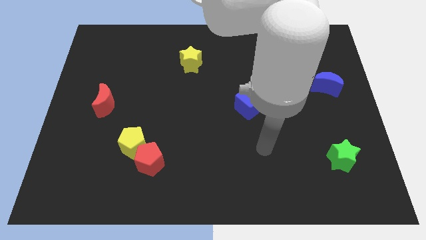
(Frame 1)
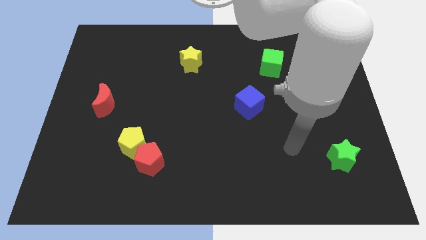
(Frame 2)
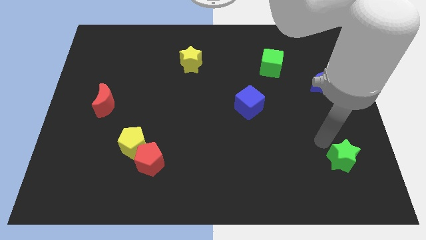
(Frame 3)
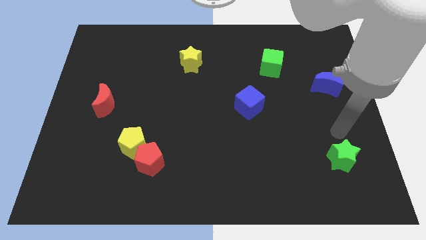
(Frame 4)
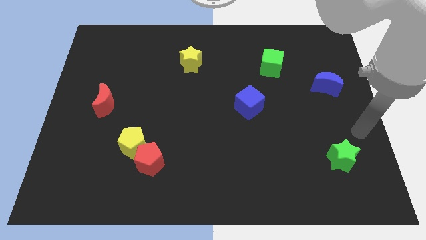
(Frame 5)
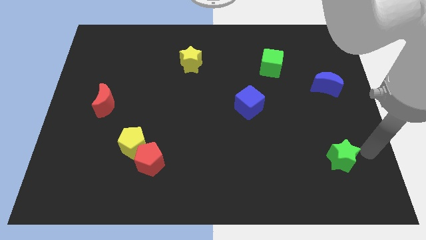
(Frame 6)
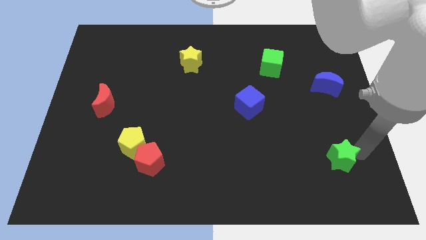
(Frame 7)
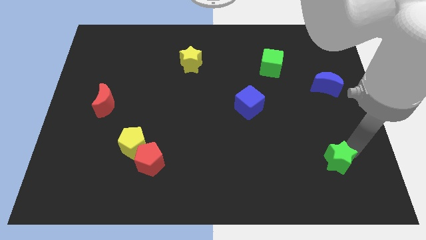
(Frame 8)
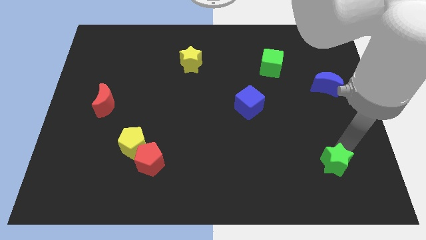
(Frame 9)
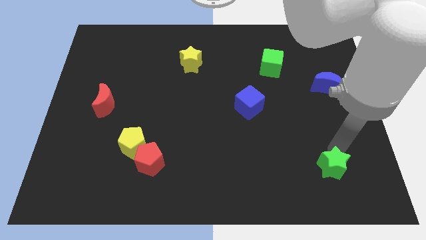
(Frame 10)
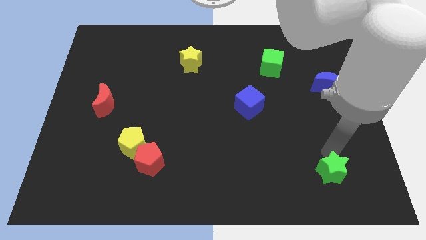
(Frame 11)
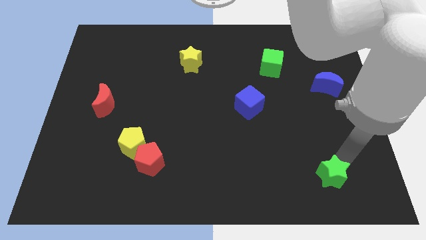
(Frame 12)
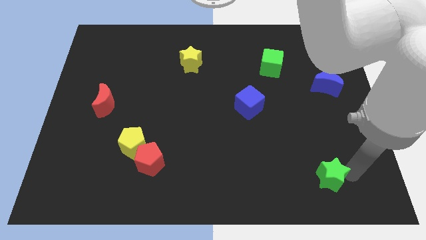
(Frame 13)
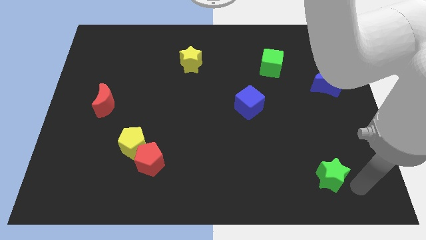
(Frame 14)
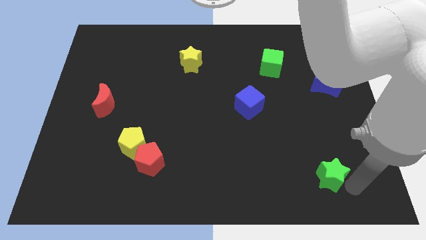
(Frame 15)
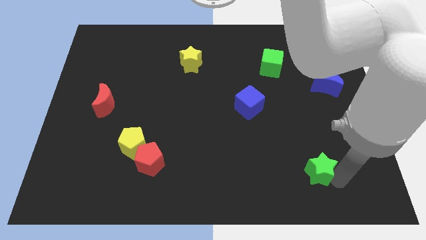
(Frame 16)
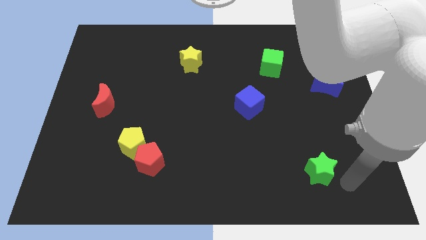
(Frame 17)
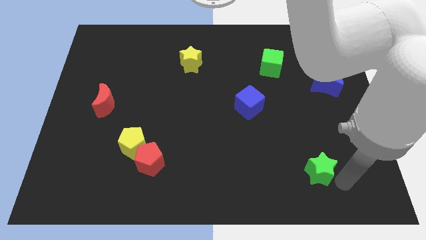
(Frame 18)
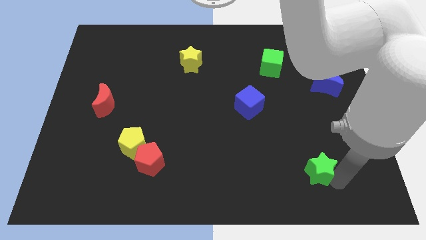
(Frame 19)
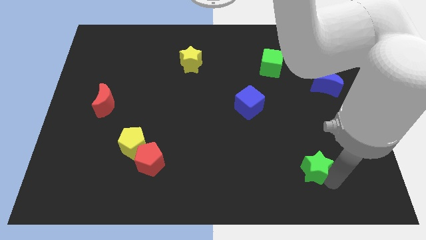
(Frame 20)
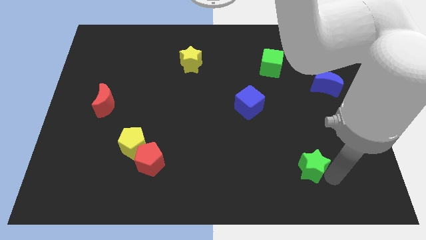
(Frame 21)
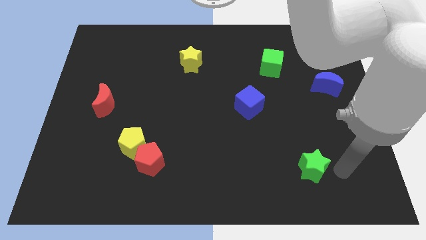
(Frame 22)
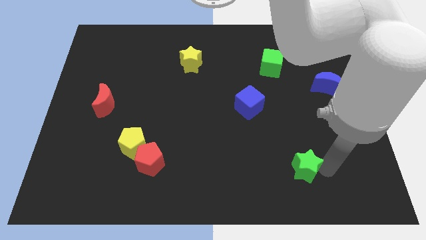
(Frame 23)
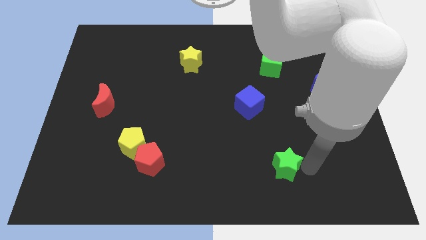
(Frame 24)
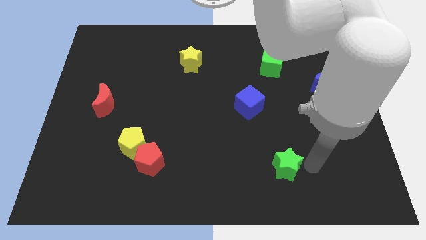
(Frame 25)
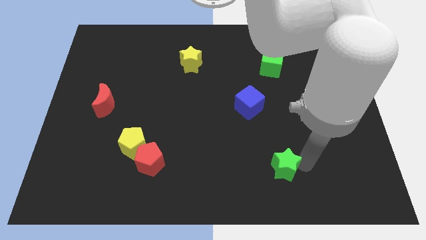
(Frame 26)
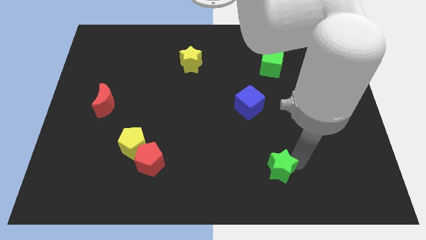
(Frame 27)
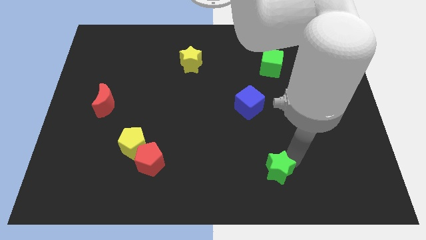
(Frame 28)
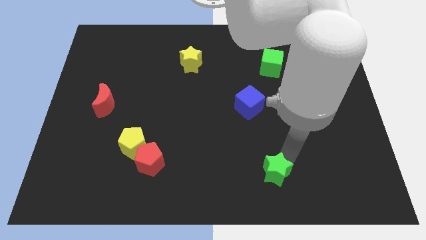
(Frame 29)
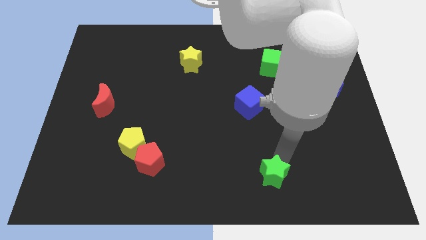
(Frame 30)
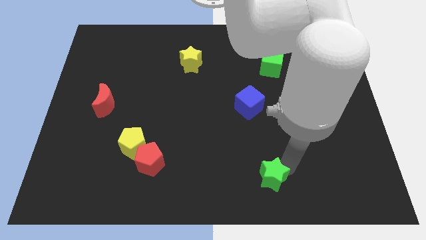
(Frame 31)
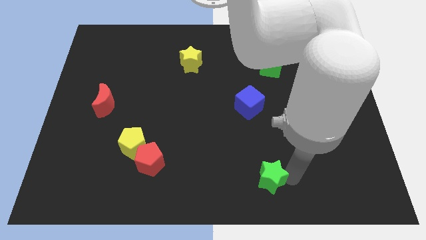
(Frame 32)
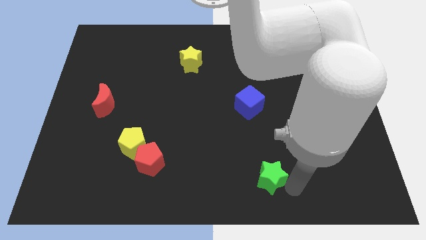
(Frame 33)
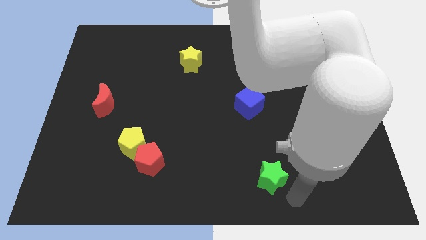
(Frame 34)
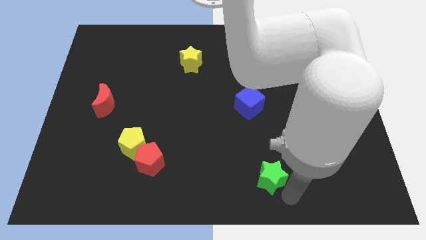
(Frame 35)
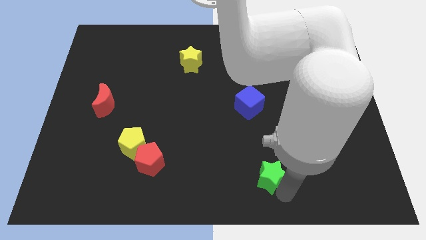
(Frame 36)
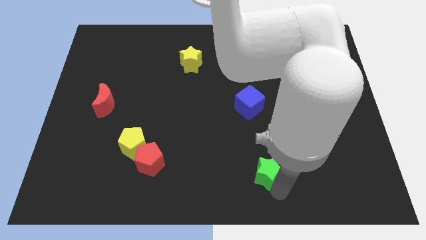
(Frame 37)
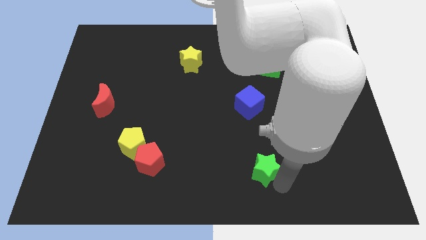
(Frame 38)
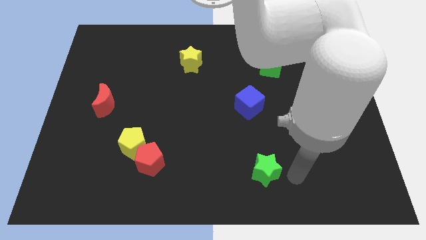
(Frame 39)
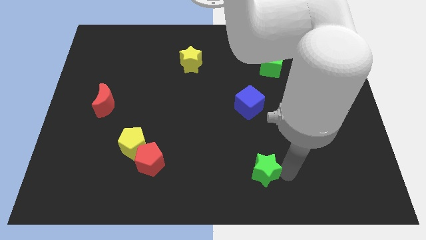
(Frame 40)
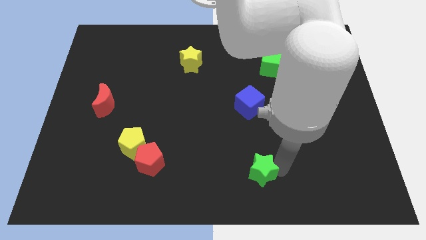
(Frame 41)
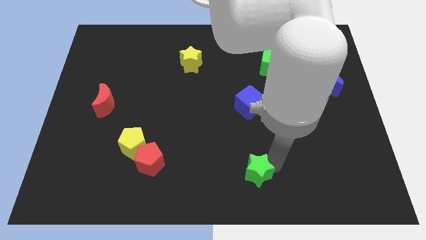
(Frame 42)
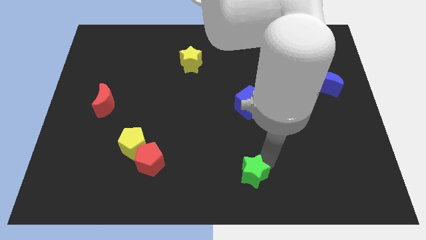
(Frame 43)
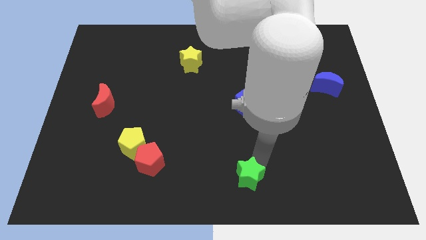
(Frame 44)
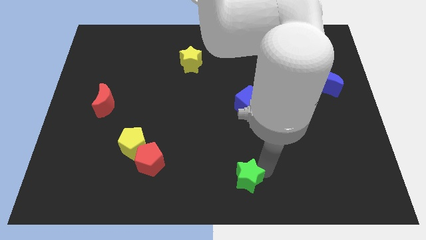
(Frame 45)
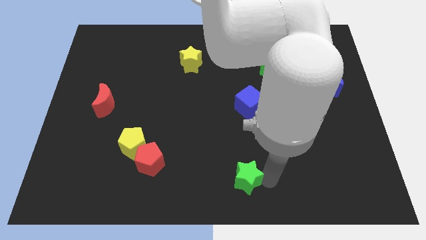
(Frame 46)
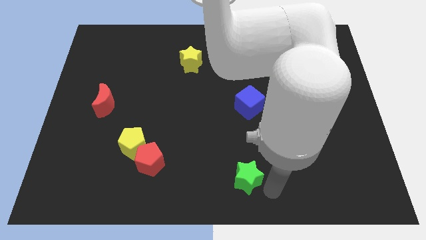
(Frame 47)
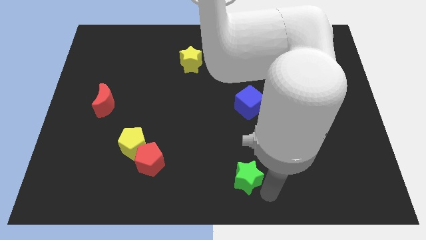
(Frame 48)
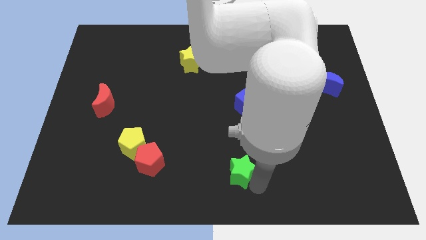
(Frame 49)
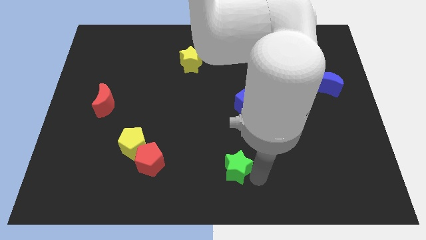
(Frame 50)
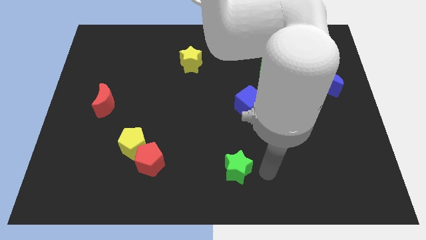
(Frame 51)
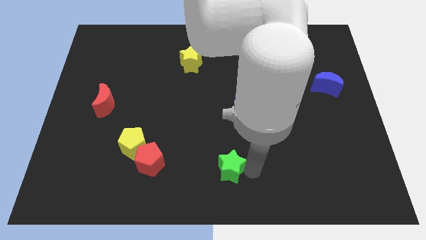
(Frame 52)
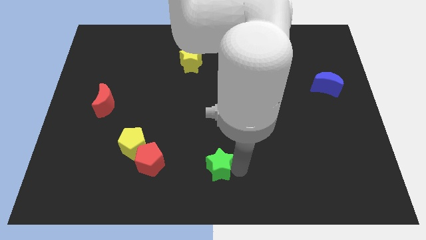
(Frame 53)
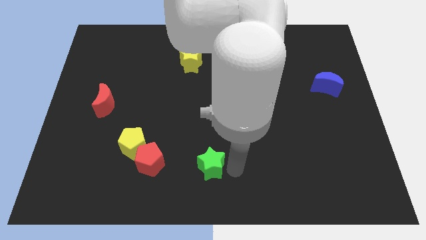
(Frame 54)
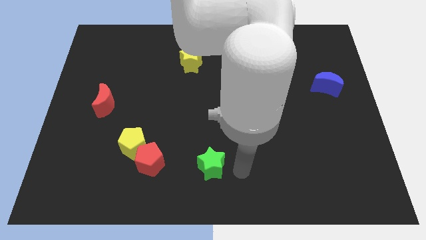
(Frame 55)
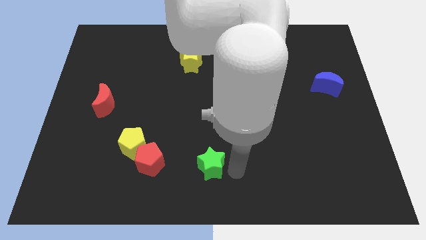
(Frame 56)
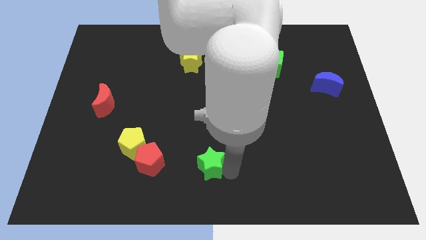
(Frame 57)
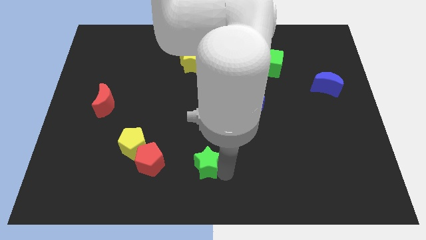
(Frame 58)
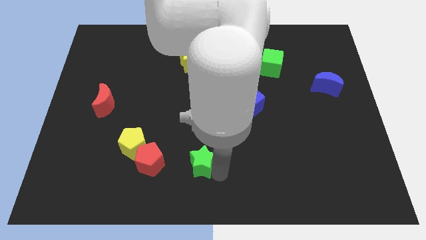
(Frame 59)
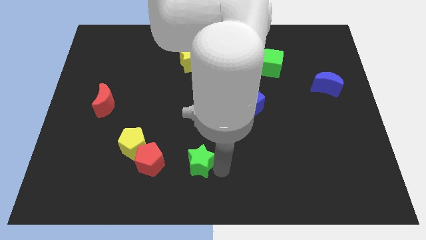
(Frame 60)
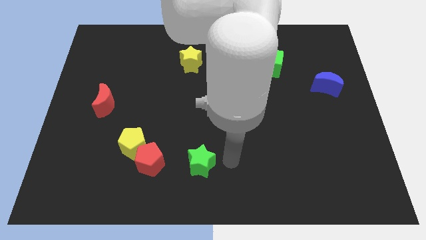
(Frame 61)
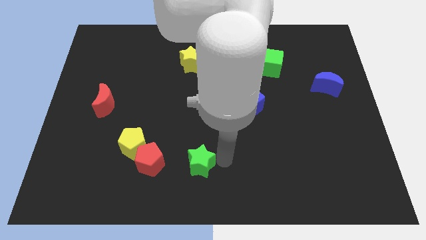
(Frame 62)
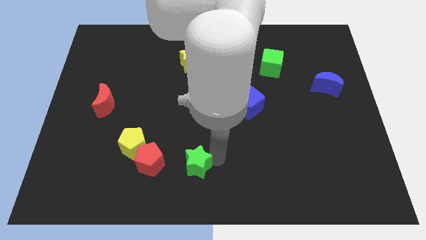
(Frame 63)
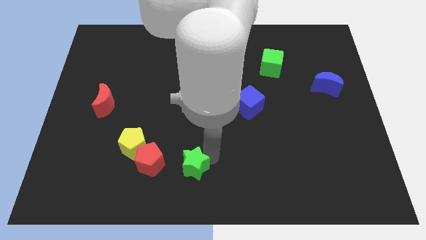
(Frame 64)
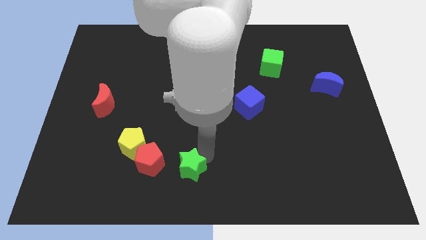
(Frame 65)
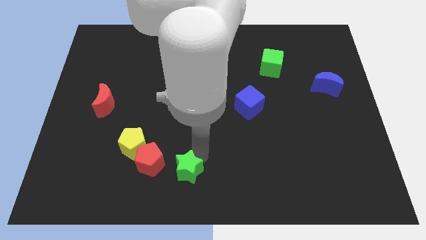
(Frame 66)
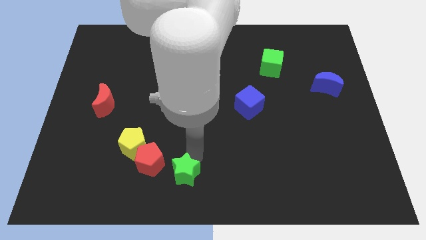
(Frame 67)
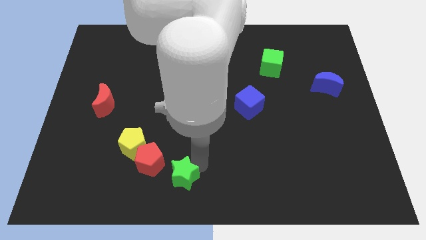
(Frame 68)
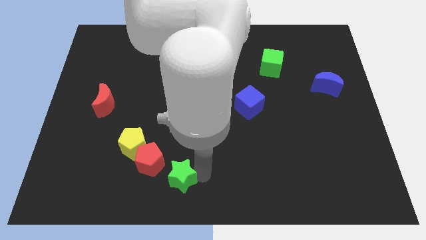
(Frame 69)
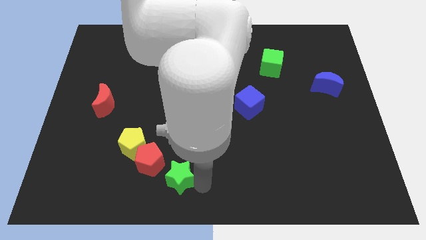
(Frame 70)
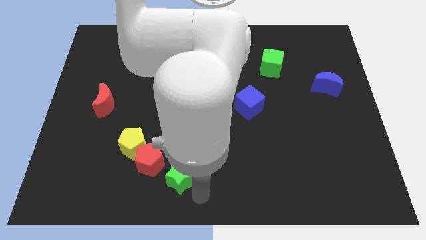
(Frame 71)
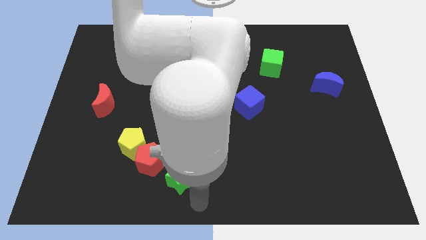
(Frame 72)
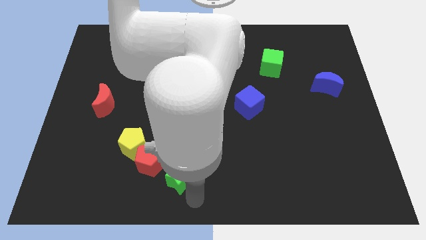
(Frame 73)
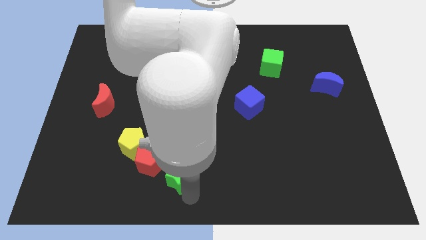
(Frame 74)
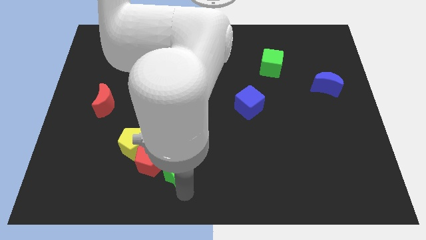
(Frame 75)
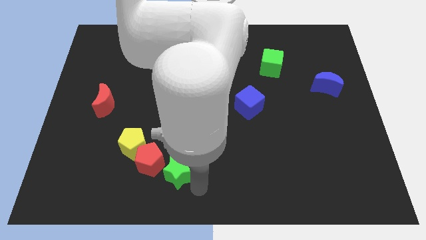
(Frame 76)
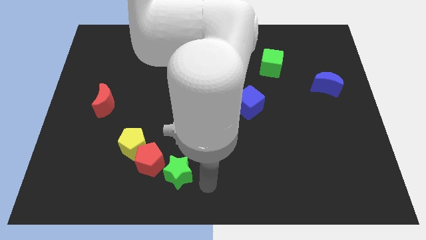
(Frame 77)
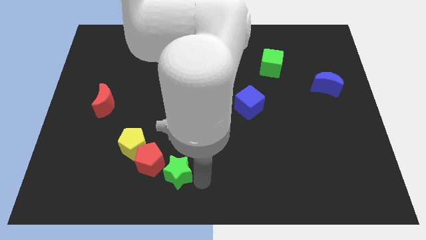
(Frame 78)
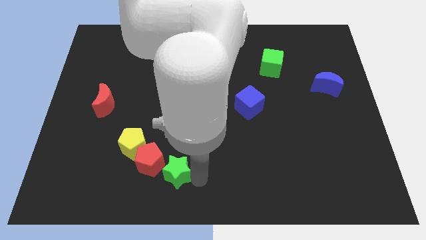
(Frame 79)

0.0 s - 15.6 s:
move the green star close to the red pentagon
